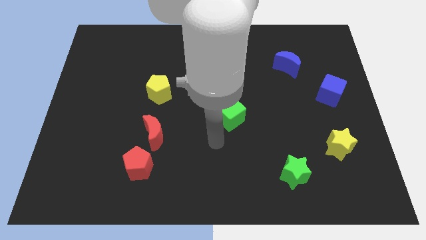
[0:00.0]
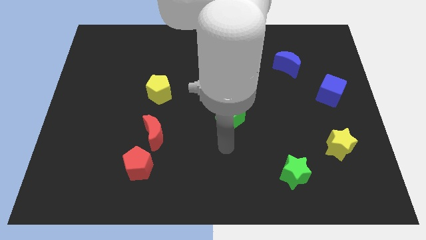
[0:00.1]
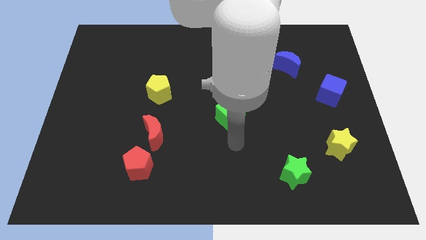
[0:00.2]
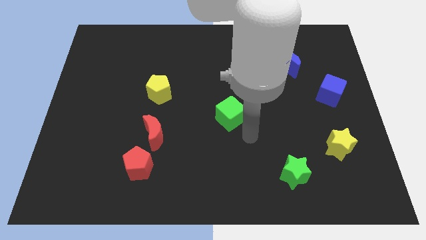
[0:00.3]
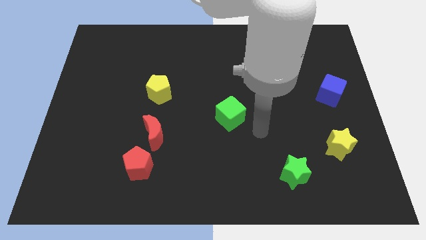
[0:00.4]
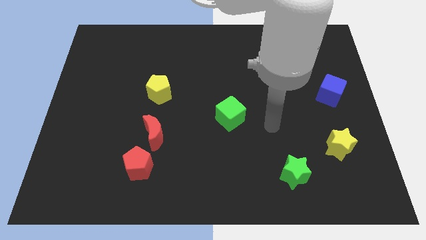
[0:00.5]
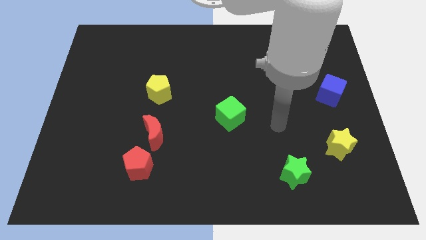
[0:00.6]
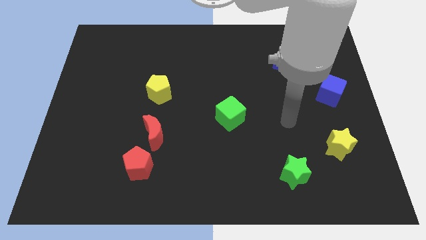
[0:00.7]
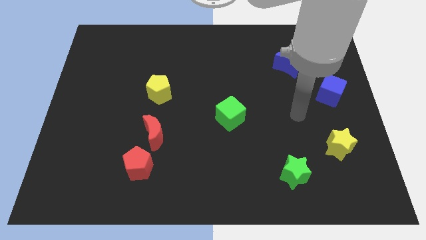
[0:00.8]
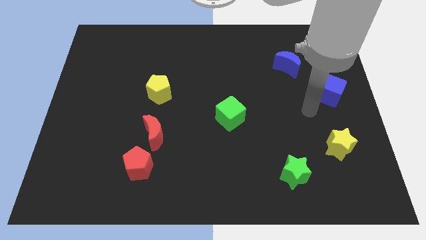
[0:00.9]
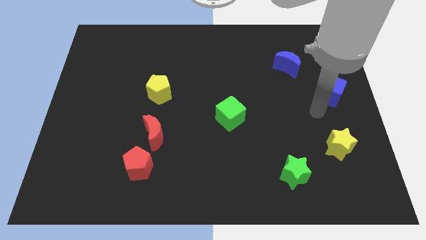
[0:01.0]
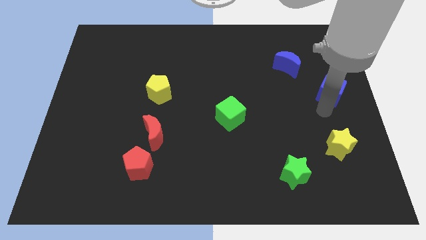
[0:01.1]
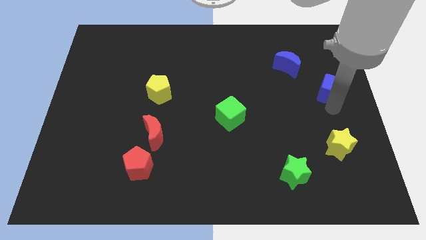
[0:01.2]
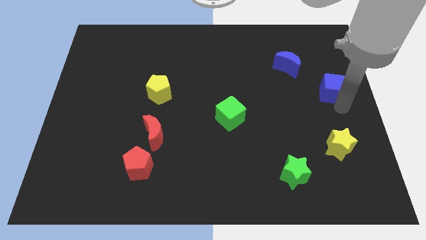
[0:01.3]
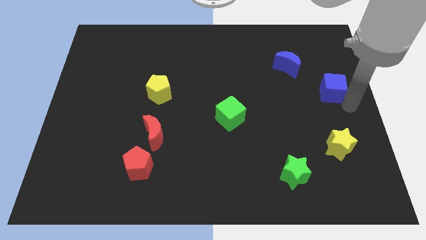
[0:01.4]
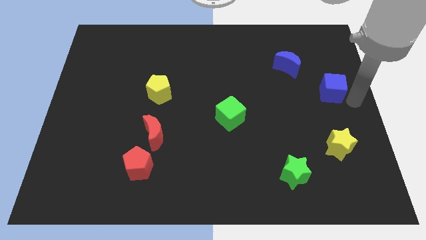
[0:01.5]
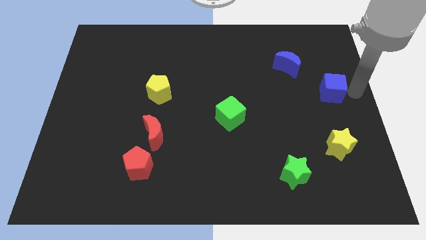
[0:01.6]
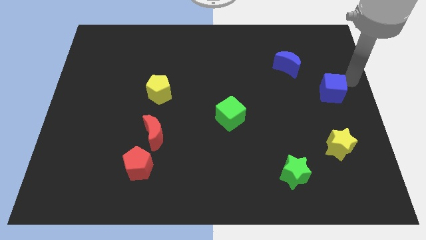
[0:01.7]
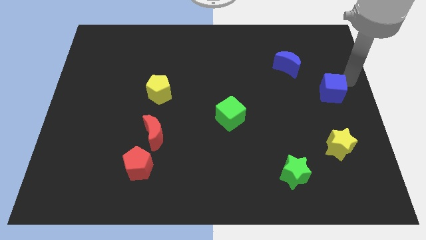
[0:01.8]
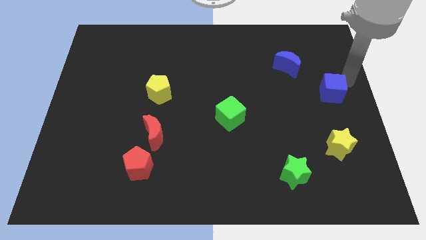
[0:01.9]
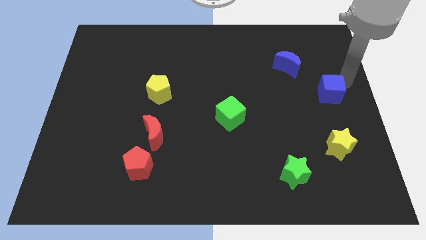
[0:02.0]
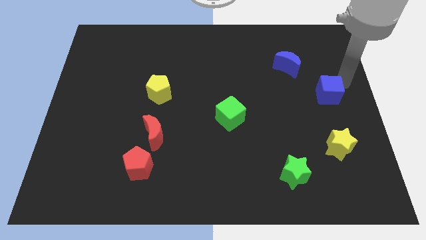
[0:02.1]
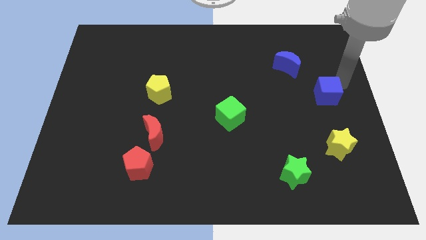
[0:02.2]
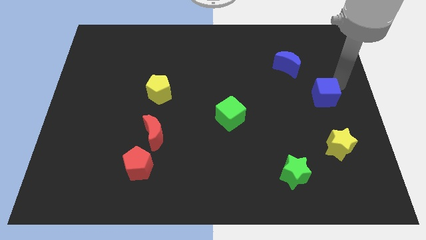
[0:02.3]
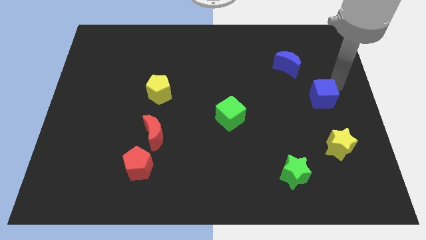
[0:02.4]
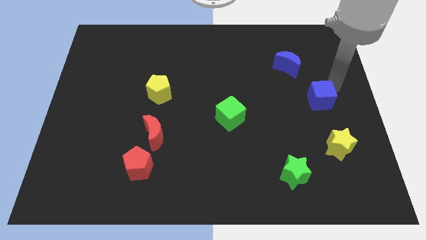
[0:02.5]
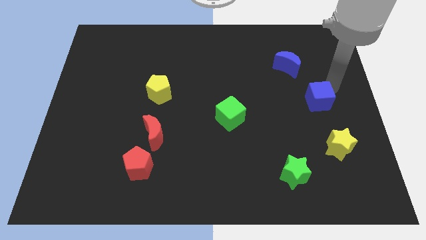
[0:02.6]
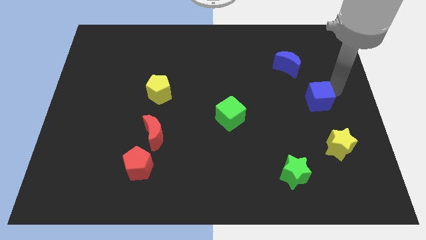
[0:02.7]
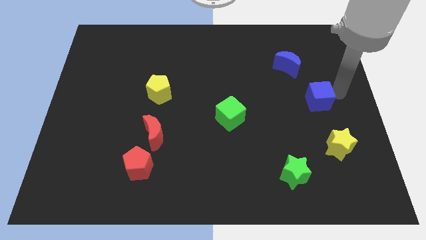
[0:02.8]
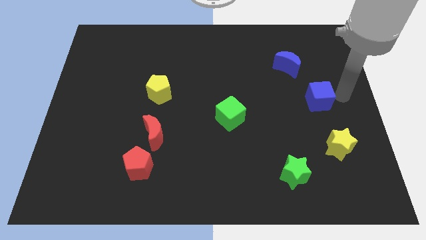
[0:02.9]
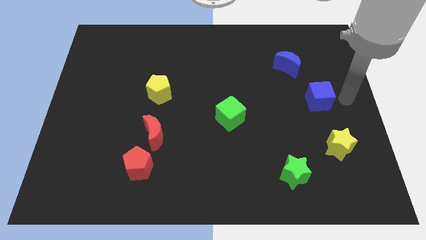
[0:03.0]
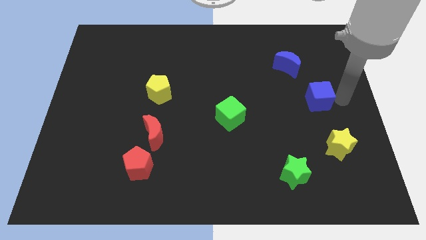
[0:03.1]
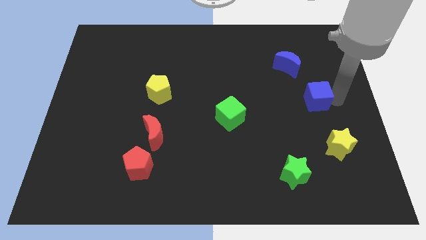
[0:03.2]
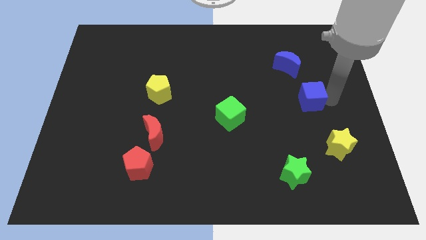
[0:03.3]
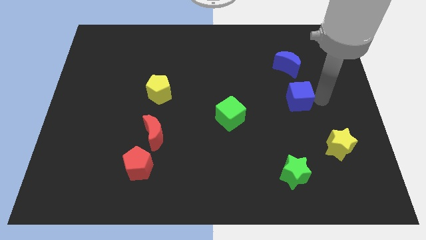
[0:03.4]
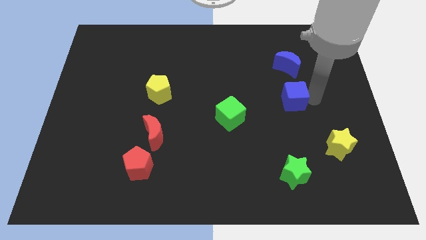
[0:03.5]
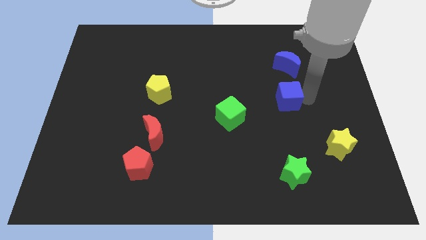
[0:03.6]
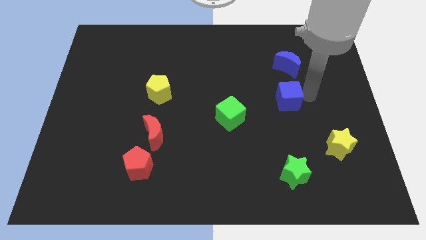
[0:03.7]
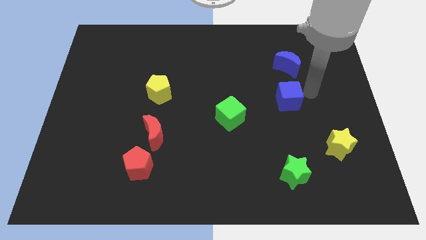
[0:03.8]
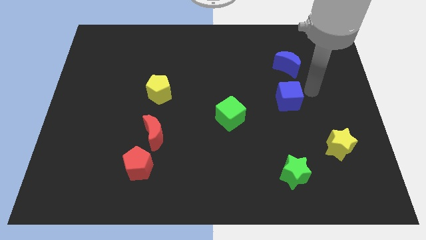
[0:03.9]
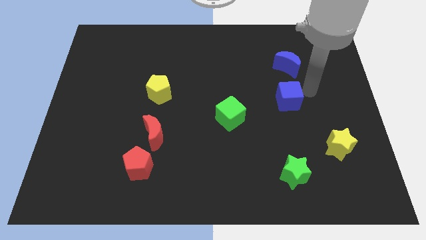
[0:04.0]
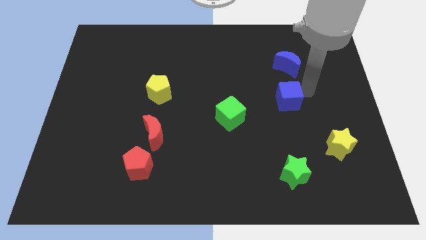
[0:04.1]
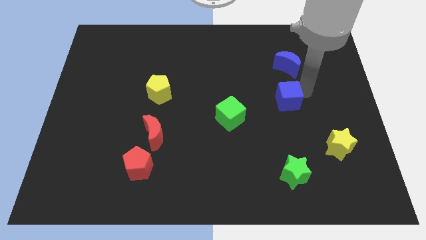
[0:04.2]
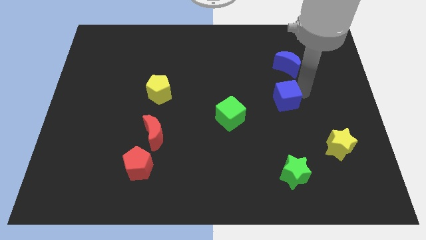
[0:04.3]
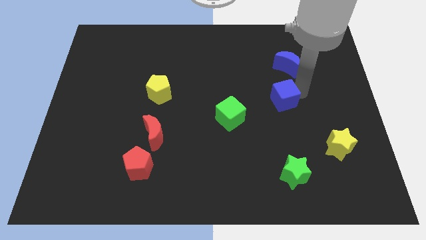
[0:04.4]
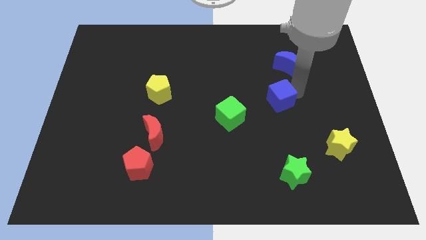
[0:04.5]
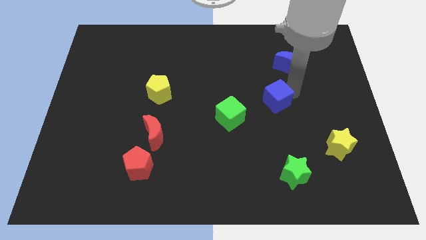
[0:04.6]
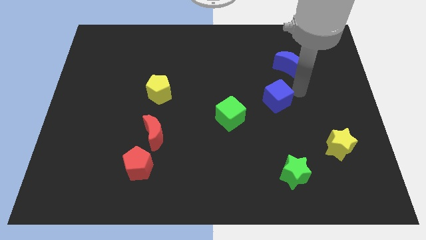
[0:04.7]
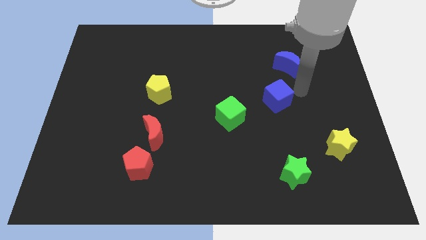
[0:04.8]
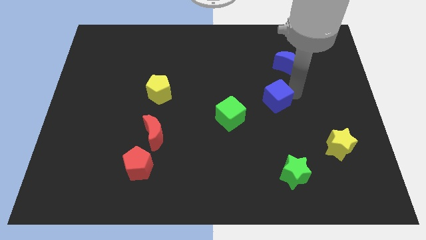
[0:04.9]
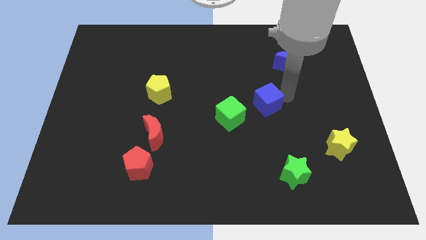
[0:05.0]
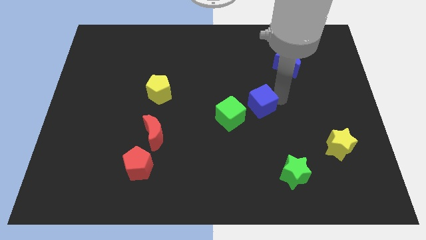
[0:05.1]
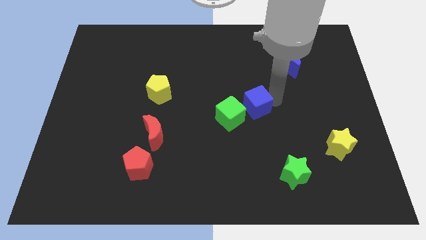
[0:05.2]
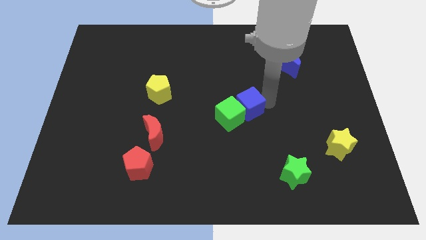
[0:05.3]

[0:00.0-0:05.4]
put the blue cube towards the green cube

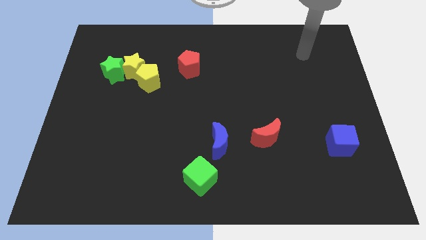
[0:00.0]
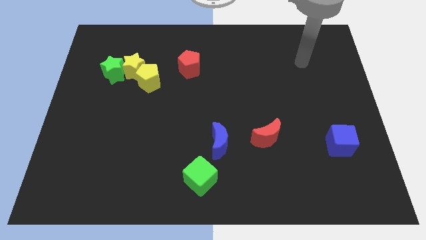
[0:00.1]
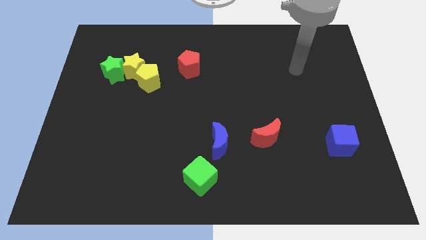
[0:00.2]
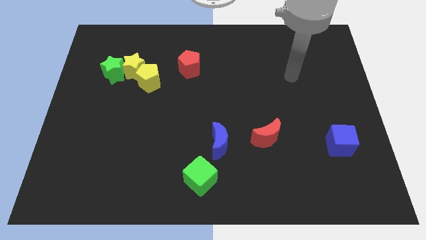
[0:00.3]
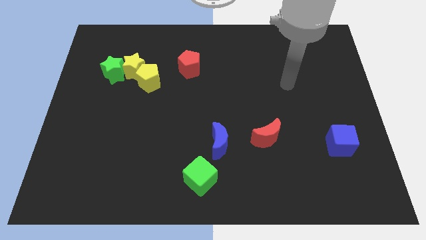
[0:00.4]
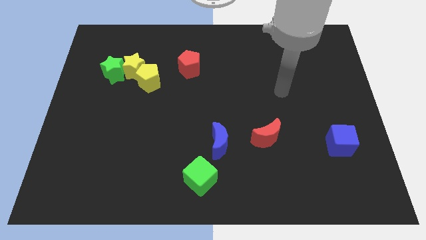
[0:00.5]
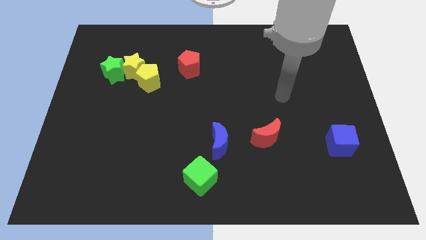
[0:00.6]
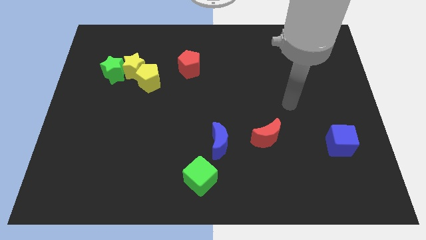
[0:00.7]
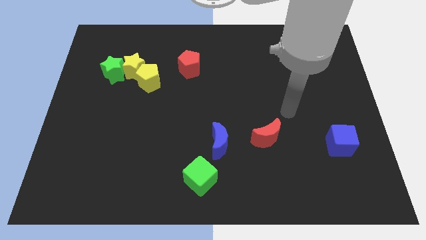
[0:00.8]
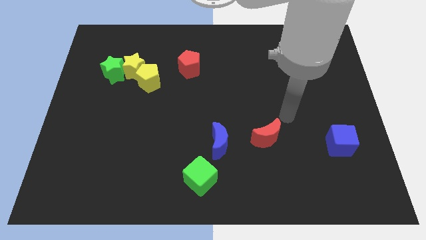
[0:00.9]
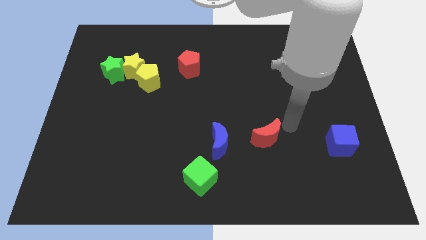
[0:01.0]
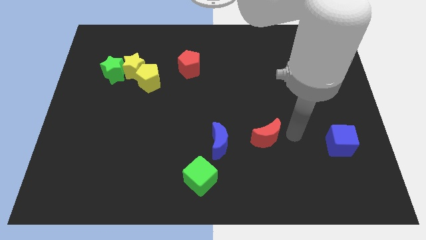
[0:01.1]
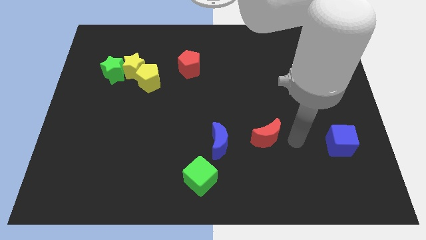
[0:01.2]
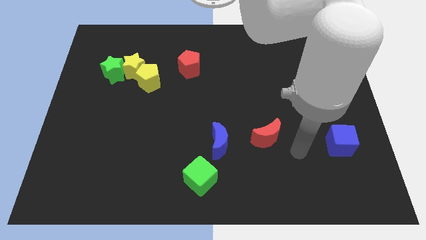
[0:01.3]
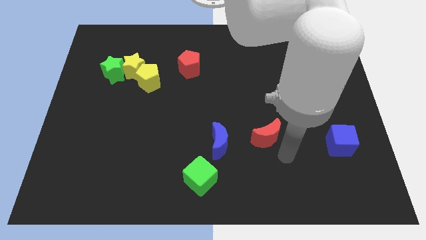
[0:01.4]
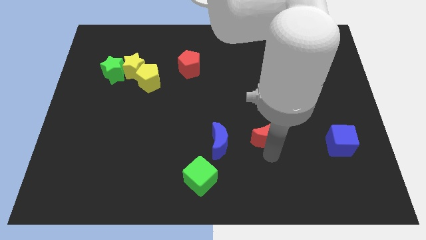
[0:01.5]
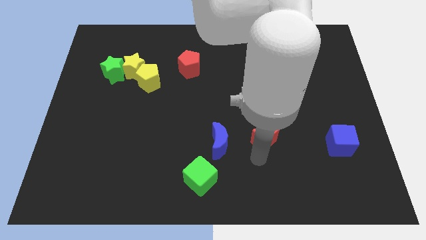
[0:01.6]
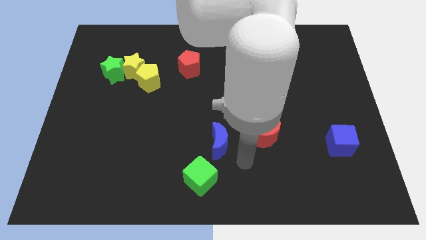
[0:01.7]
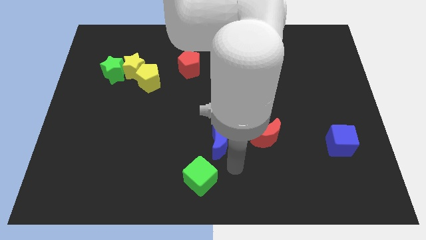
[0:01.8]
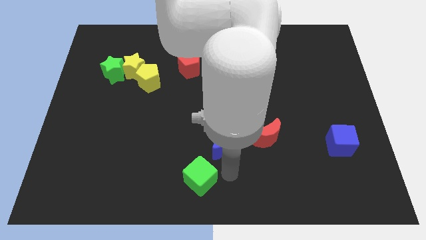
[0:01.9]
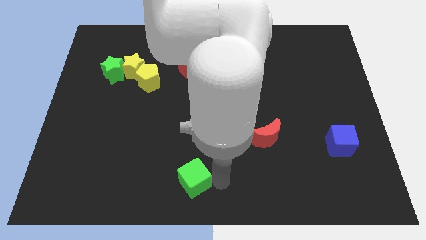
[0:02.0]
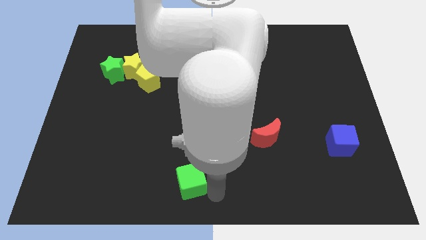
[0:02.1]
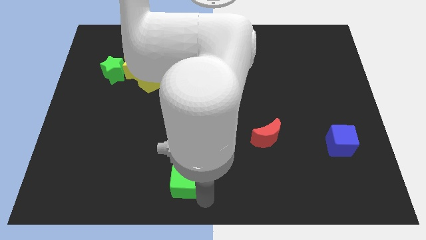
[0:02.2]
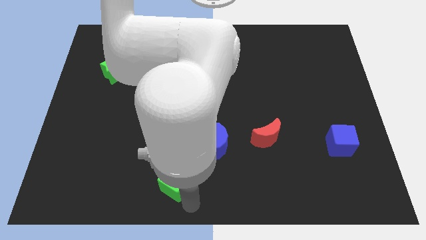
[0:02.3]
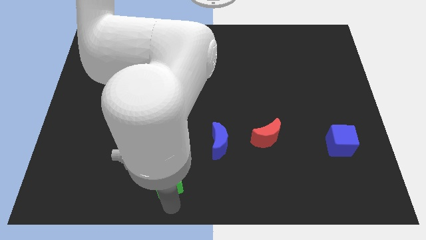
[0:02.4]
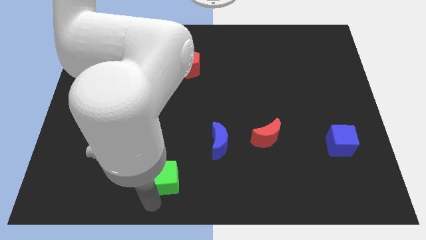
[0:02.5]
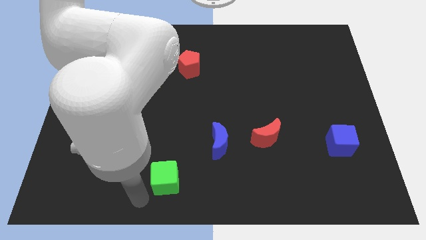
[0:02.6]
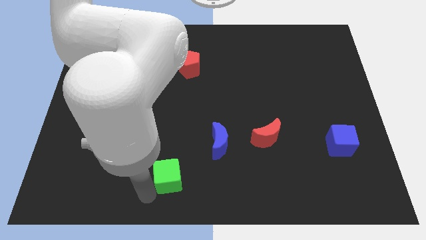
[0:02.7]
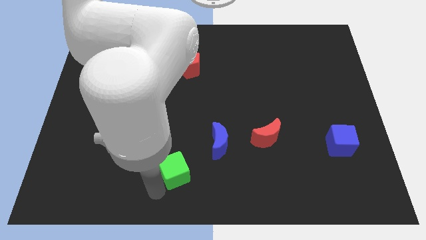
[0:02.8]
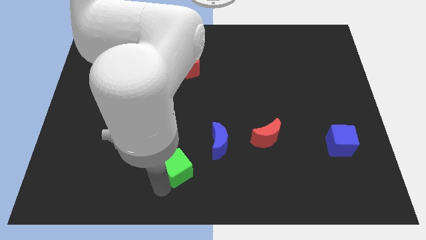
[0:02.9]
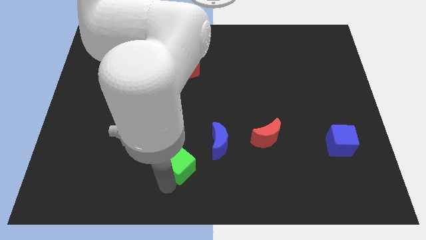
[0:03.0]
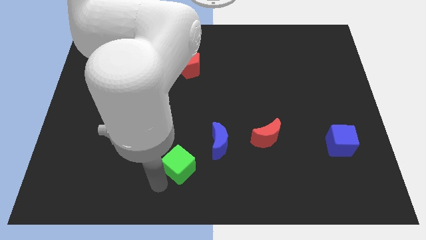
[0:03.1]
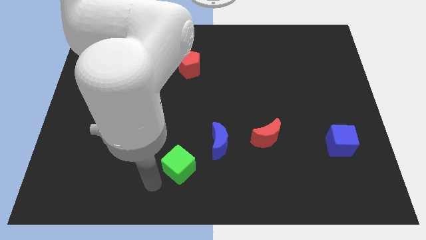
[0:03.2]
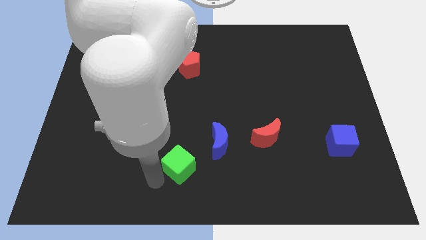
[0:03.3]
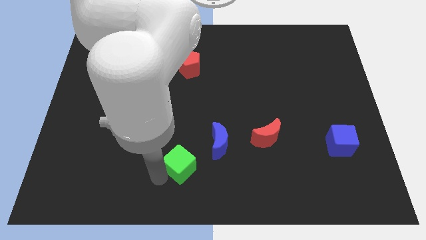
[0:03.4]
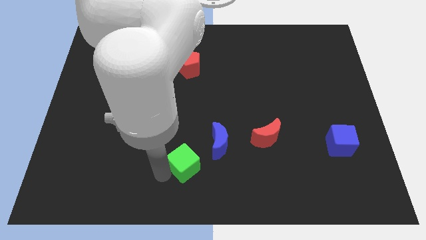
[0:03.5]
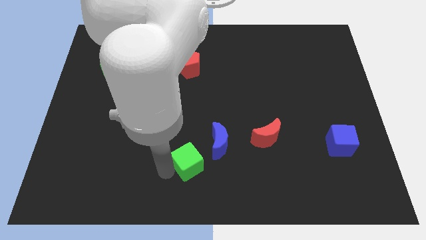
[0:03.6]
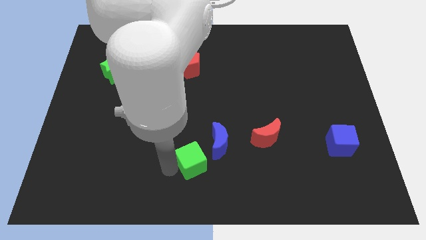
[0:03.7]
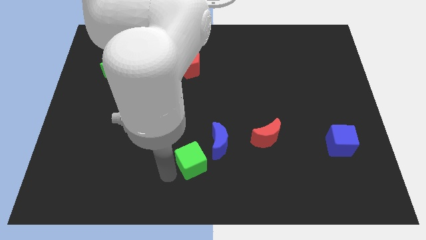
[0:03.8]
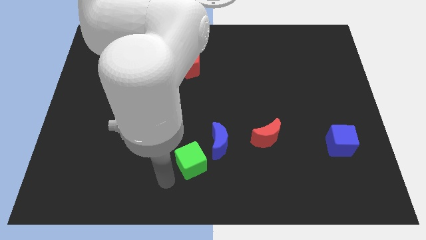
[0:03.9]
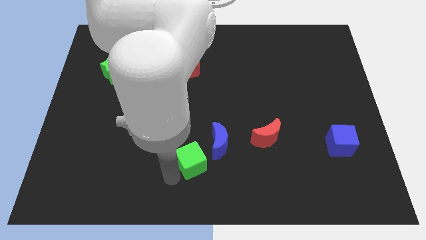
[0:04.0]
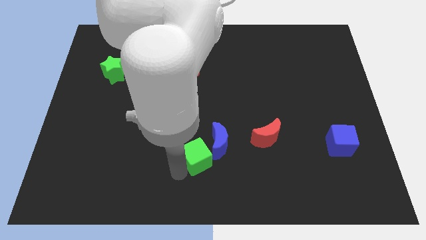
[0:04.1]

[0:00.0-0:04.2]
push the green cube next to the blue moon
